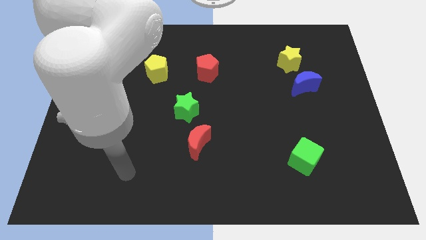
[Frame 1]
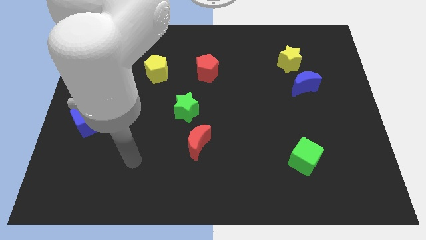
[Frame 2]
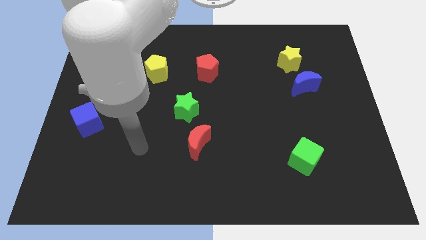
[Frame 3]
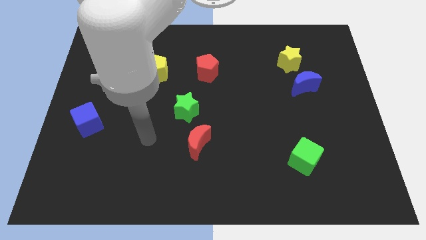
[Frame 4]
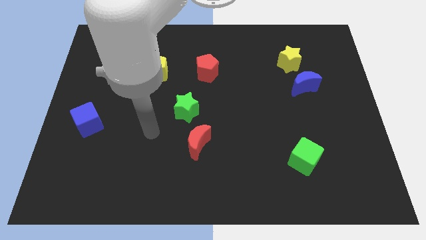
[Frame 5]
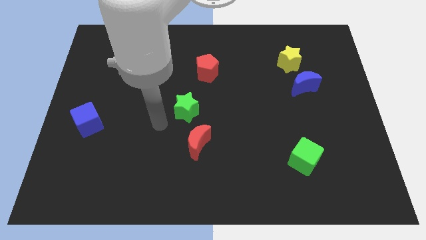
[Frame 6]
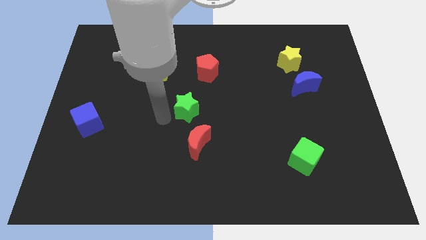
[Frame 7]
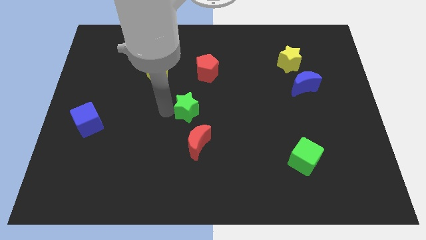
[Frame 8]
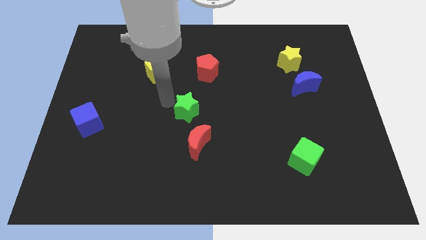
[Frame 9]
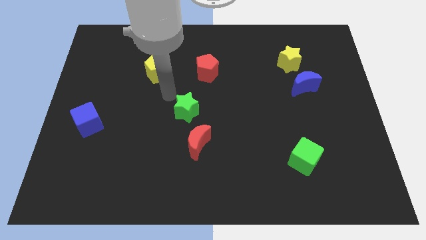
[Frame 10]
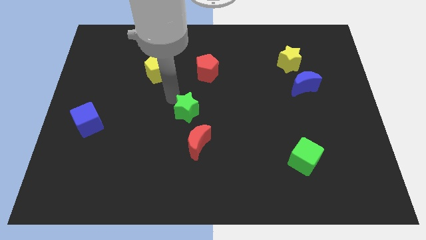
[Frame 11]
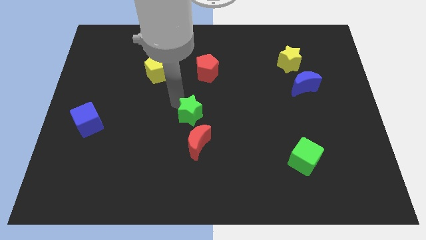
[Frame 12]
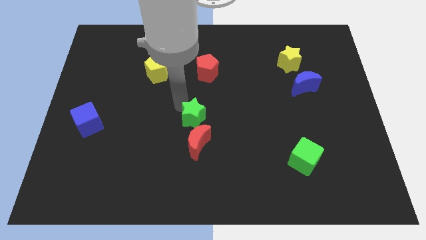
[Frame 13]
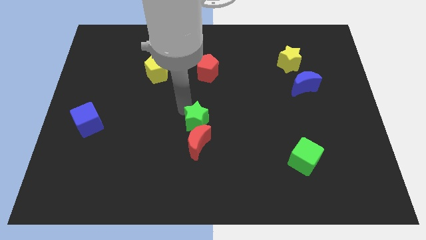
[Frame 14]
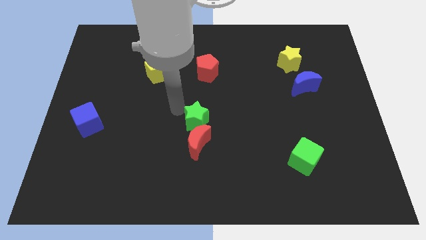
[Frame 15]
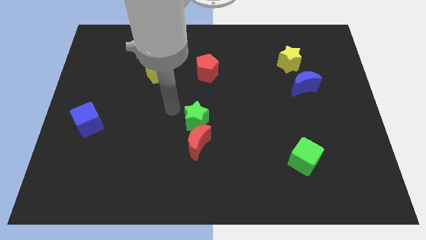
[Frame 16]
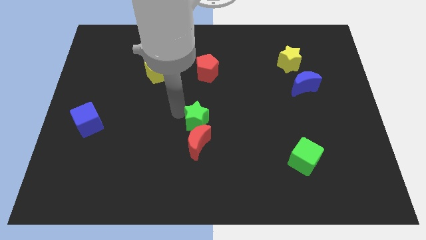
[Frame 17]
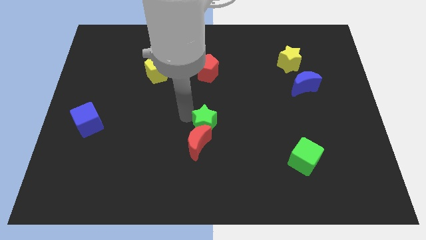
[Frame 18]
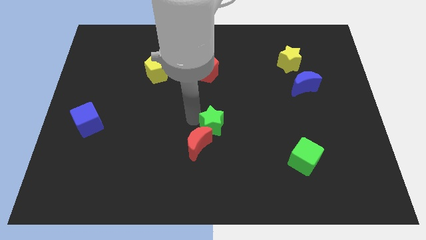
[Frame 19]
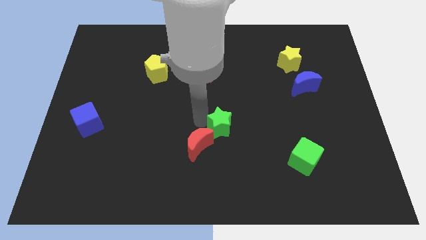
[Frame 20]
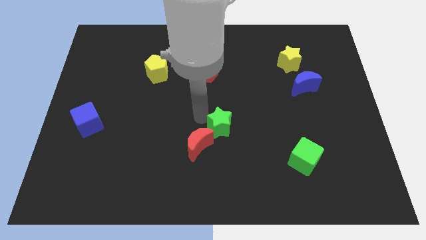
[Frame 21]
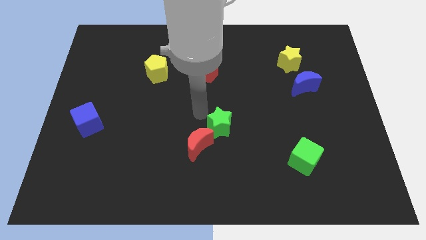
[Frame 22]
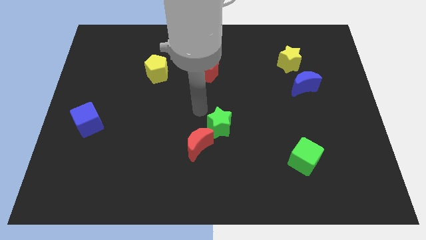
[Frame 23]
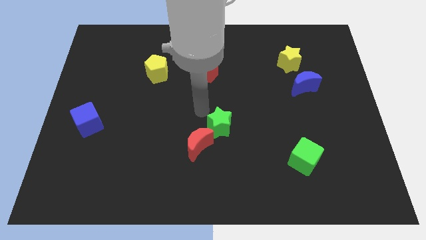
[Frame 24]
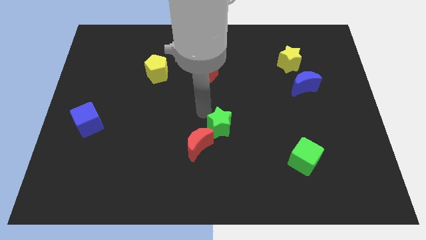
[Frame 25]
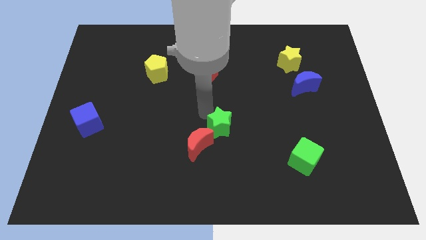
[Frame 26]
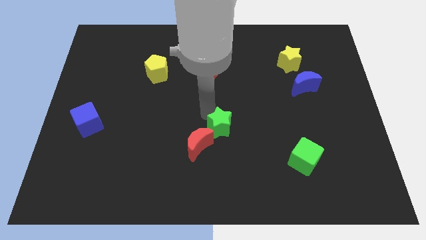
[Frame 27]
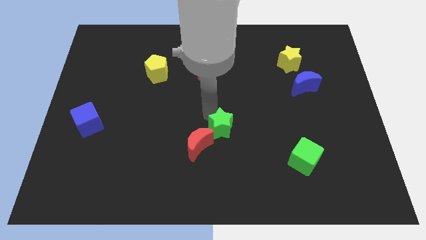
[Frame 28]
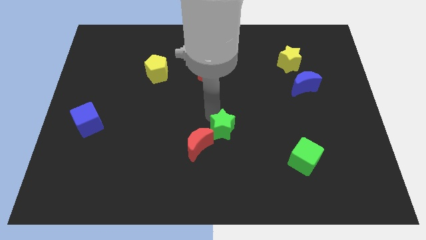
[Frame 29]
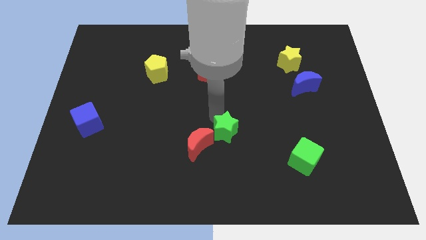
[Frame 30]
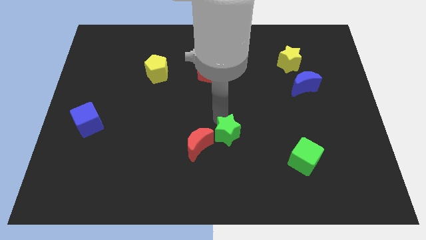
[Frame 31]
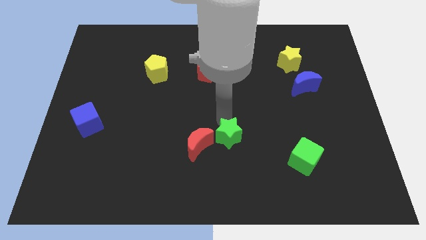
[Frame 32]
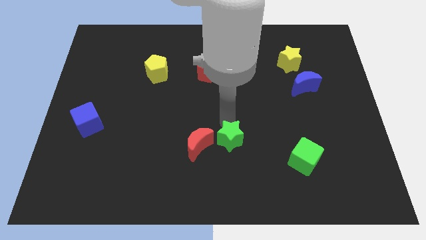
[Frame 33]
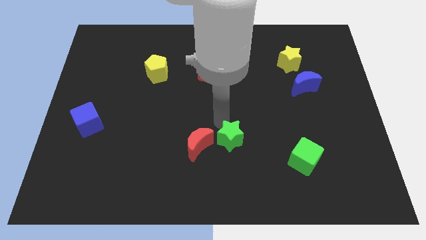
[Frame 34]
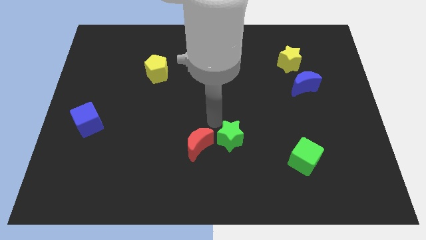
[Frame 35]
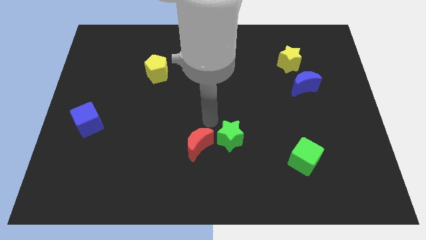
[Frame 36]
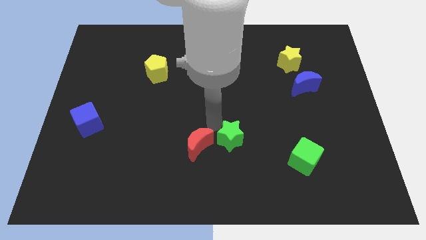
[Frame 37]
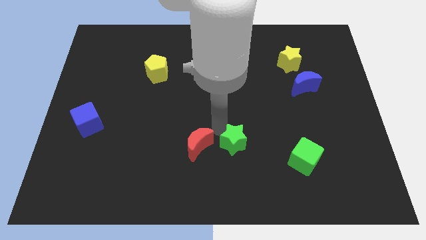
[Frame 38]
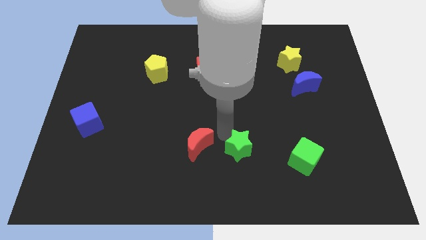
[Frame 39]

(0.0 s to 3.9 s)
slide the green star just left of the green cube

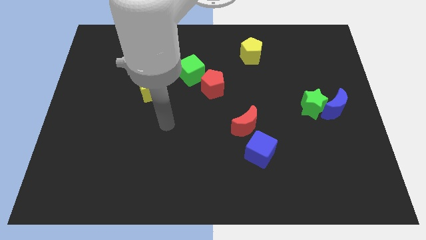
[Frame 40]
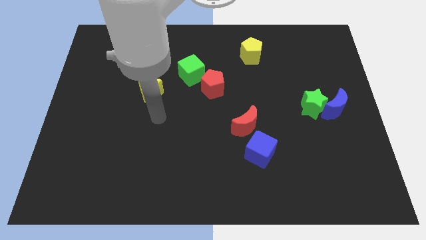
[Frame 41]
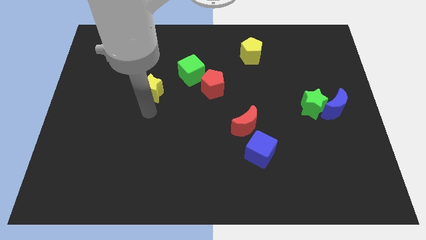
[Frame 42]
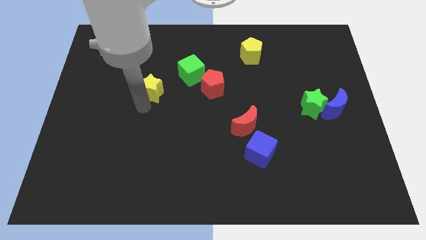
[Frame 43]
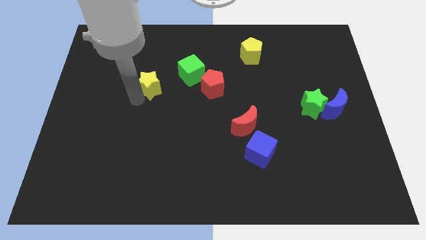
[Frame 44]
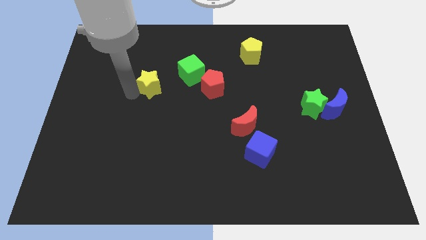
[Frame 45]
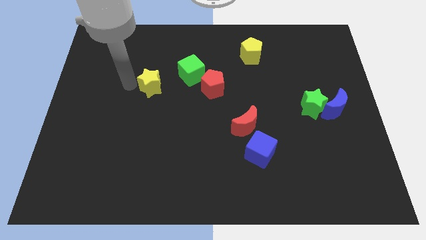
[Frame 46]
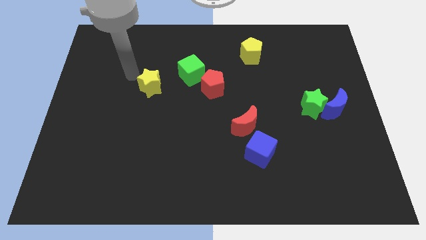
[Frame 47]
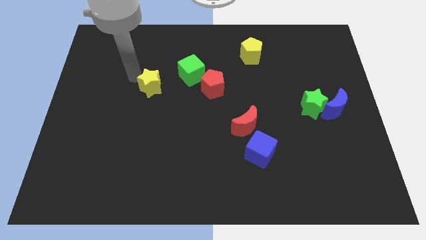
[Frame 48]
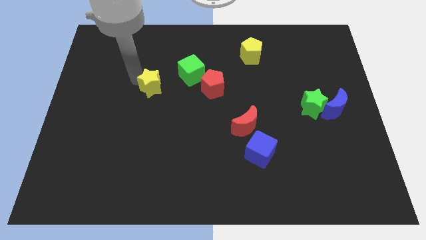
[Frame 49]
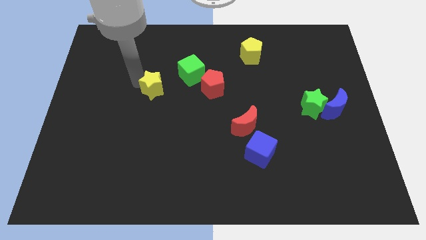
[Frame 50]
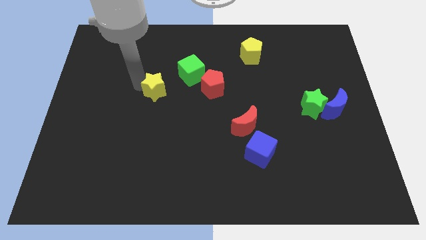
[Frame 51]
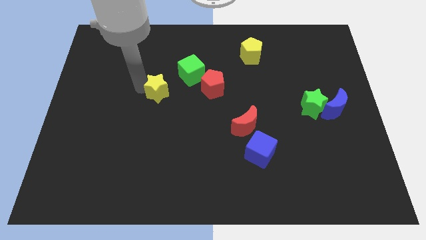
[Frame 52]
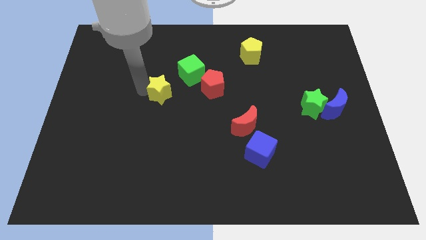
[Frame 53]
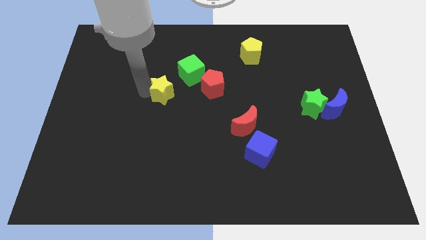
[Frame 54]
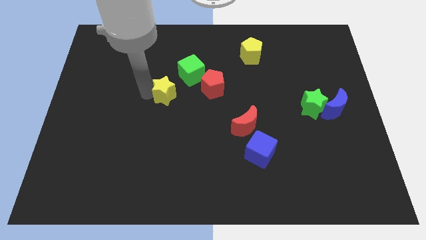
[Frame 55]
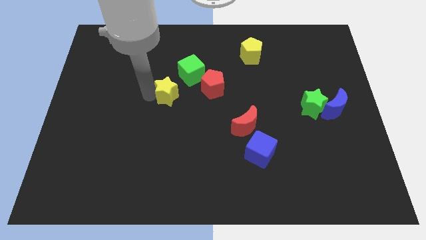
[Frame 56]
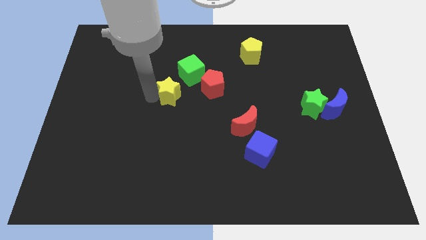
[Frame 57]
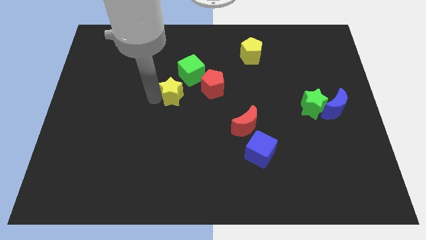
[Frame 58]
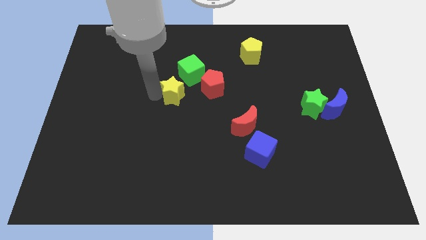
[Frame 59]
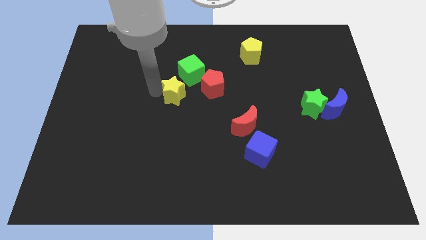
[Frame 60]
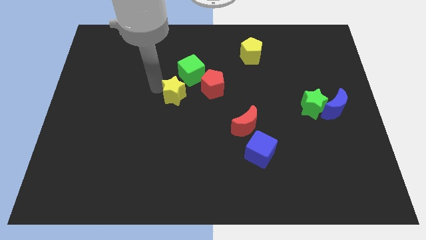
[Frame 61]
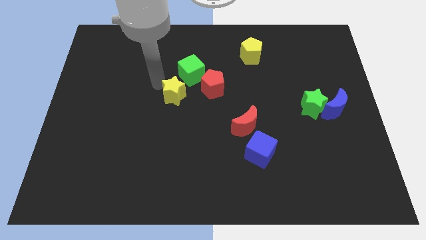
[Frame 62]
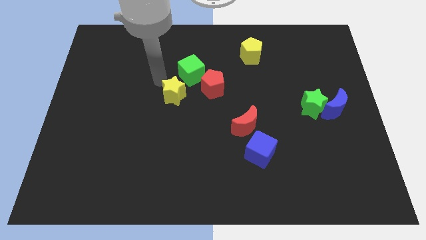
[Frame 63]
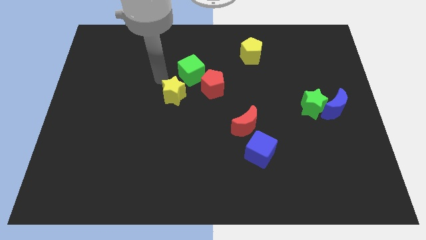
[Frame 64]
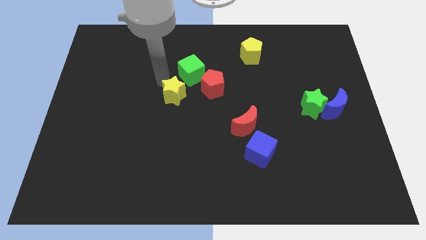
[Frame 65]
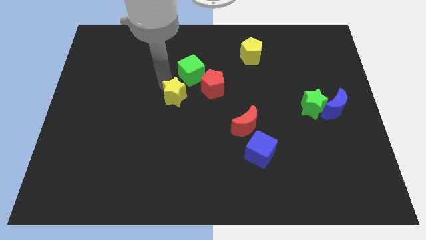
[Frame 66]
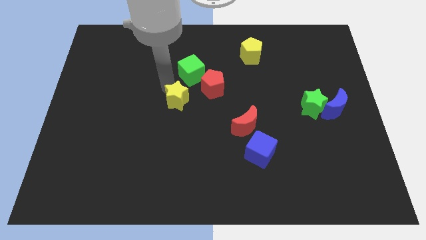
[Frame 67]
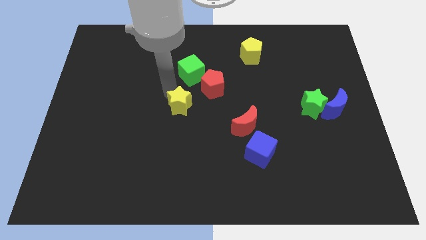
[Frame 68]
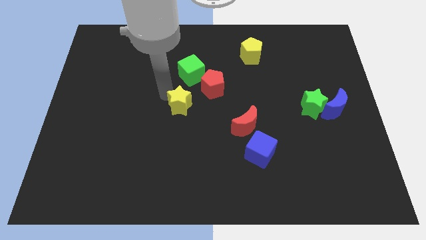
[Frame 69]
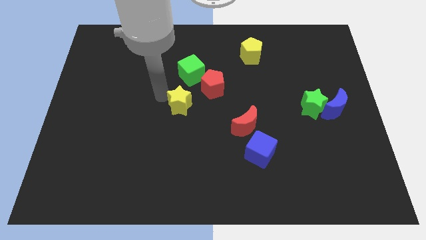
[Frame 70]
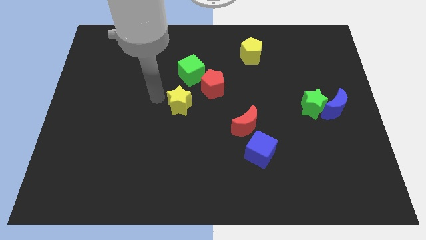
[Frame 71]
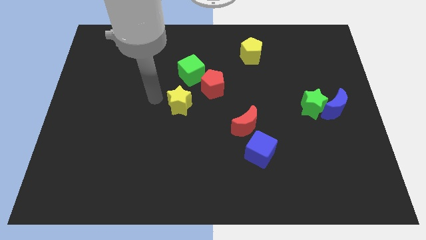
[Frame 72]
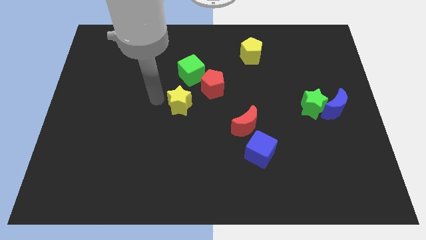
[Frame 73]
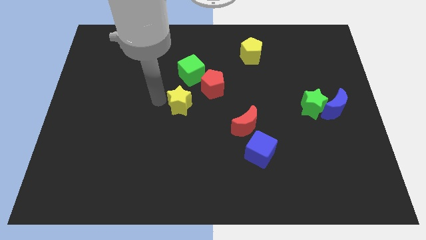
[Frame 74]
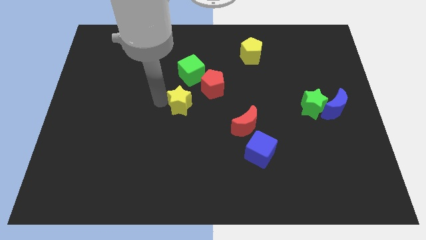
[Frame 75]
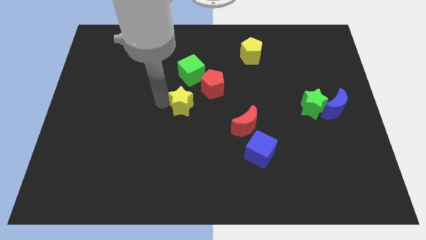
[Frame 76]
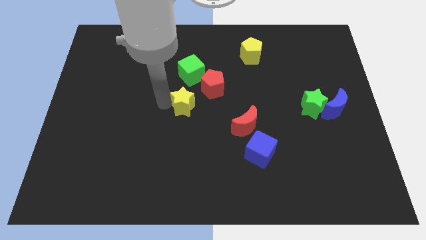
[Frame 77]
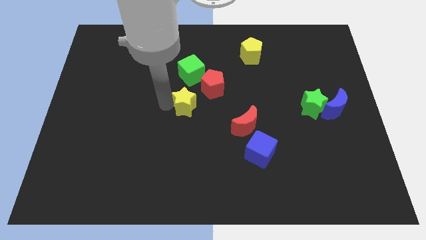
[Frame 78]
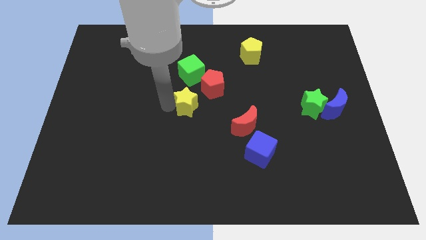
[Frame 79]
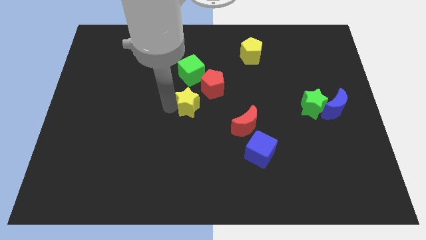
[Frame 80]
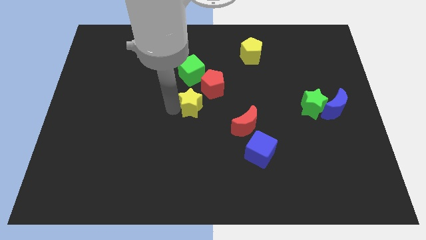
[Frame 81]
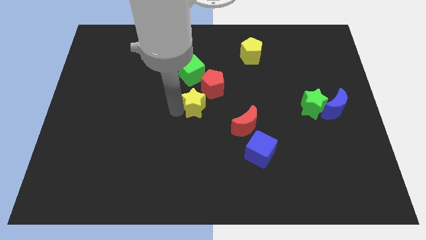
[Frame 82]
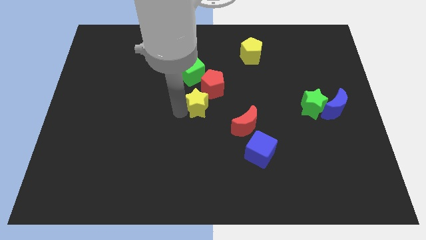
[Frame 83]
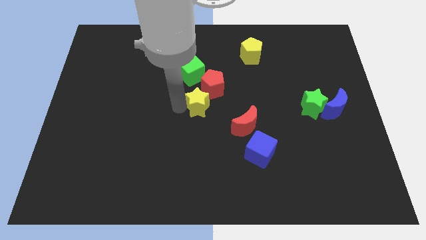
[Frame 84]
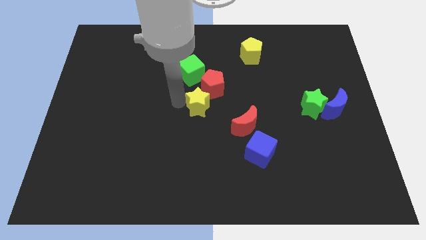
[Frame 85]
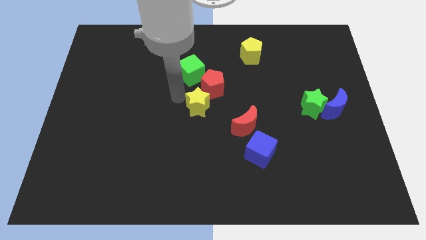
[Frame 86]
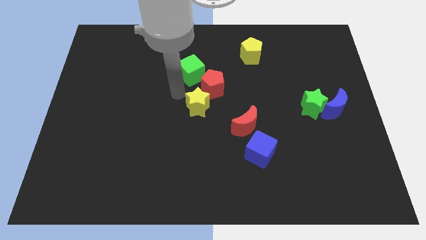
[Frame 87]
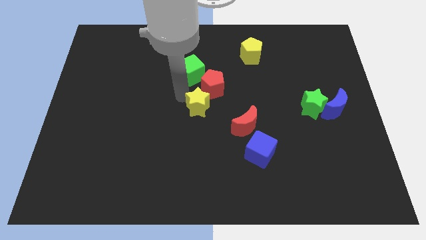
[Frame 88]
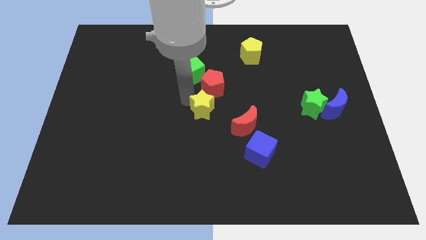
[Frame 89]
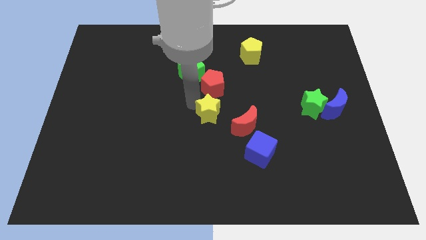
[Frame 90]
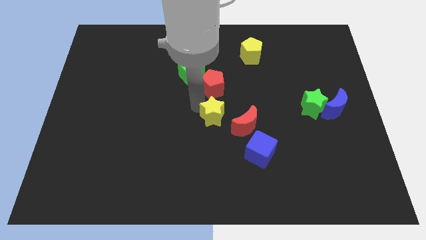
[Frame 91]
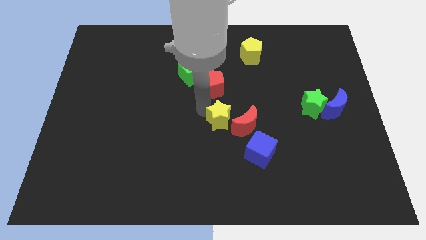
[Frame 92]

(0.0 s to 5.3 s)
push the yellow star diagonally up and to the left of the blue cube
